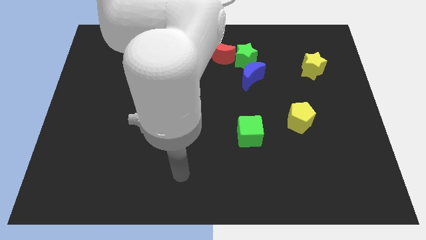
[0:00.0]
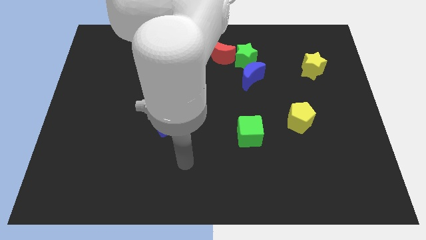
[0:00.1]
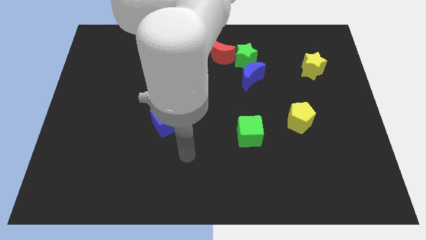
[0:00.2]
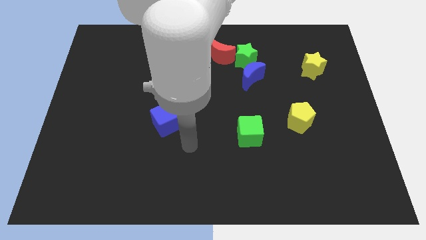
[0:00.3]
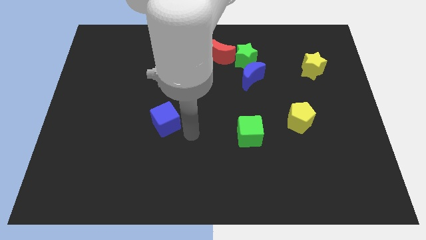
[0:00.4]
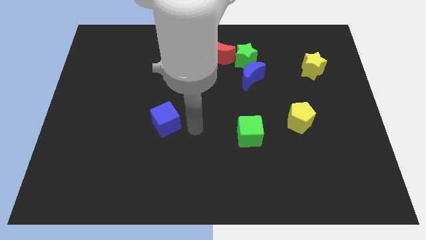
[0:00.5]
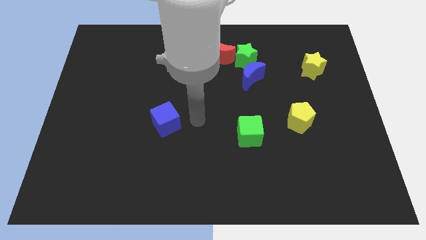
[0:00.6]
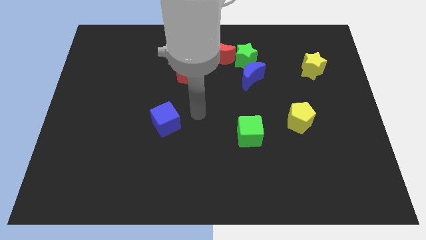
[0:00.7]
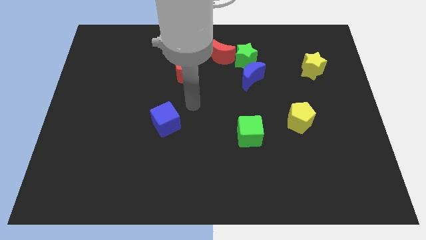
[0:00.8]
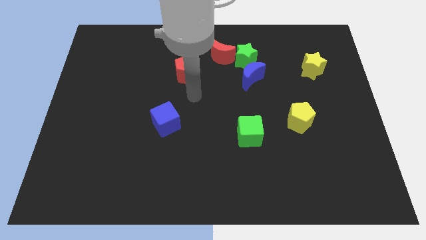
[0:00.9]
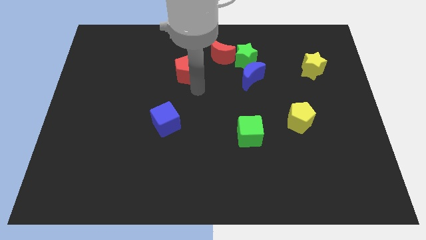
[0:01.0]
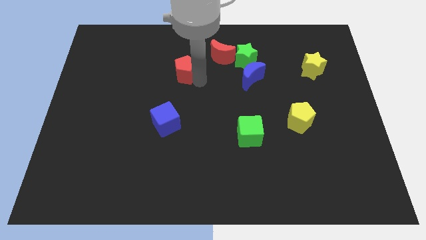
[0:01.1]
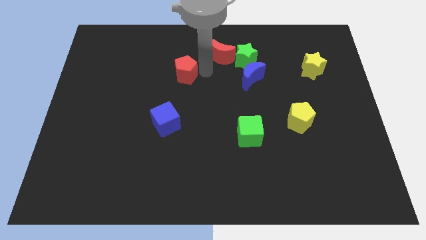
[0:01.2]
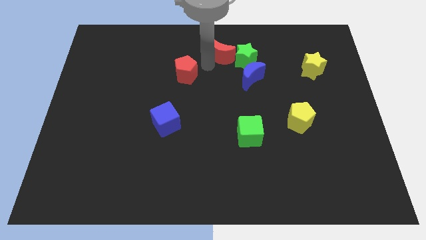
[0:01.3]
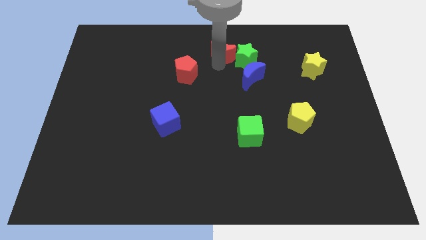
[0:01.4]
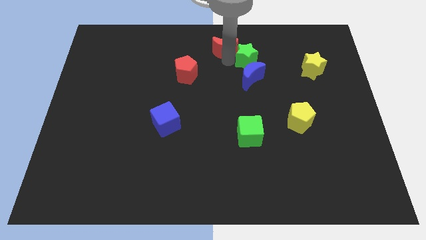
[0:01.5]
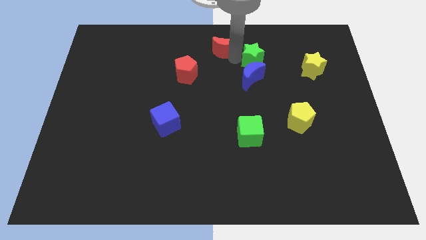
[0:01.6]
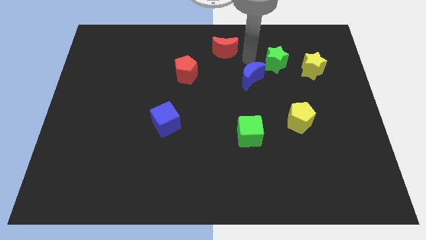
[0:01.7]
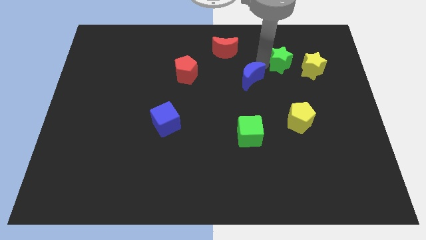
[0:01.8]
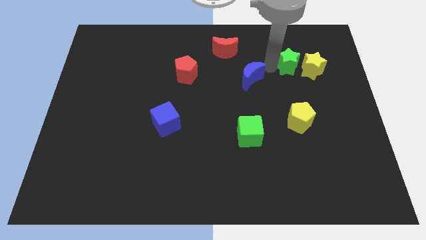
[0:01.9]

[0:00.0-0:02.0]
separate the blue moon from the green star

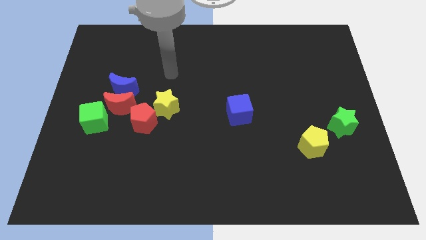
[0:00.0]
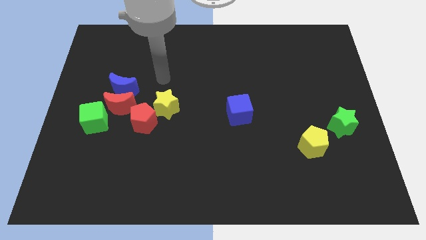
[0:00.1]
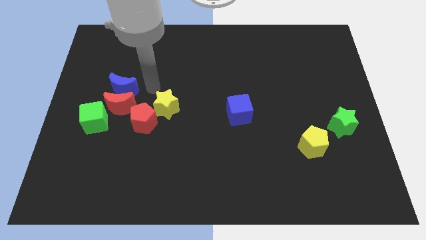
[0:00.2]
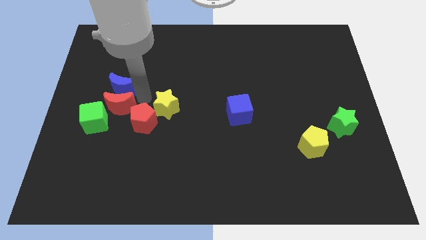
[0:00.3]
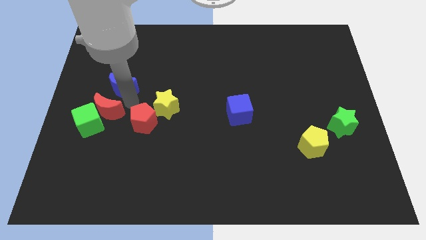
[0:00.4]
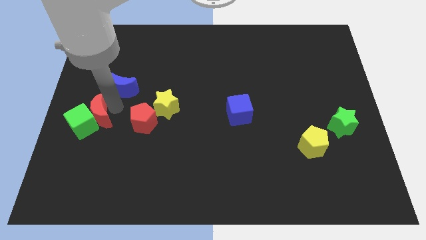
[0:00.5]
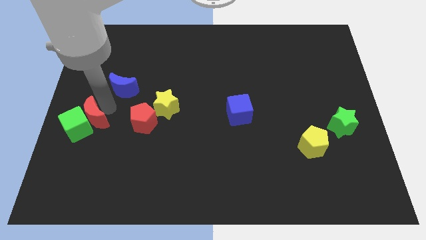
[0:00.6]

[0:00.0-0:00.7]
separate the blue moon from the red moon

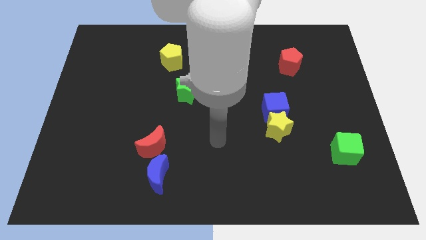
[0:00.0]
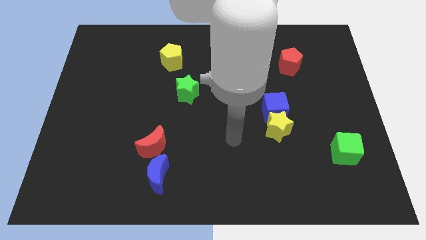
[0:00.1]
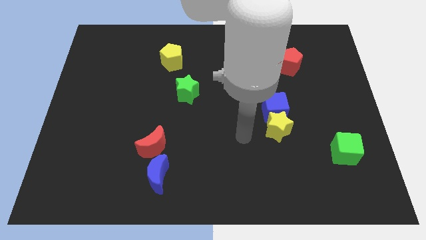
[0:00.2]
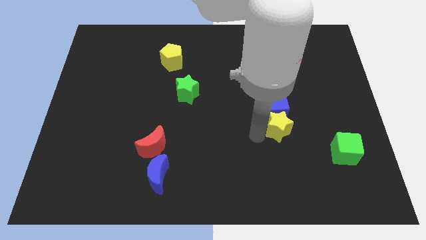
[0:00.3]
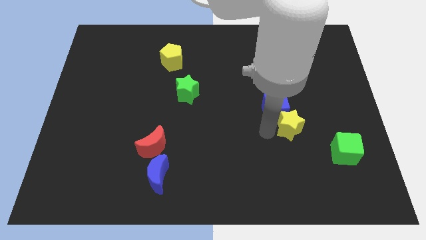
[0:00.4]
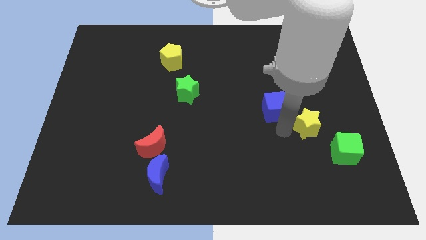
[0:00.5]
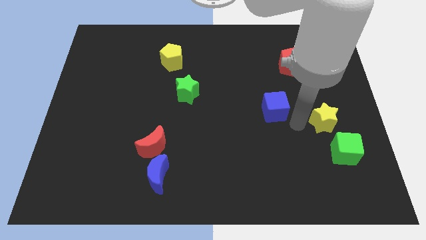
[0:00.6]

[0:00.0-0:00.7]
separate the blue cube from the yellow star

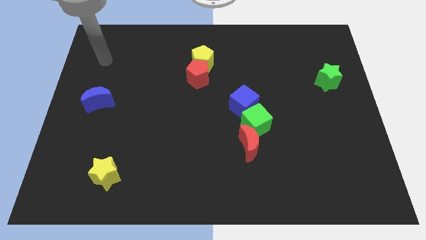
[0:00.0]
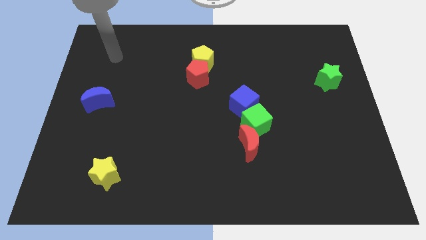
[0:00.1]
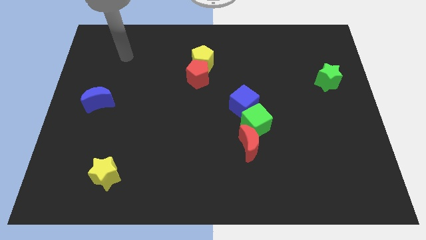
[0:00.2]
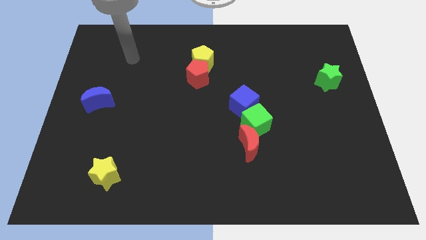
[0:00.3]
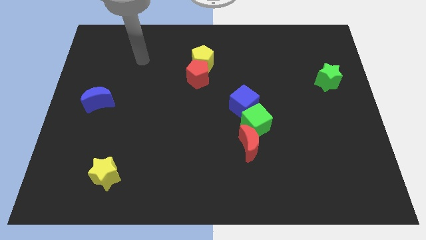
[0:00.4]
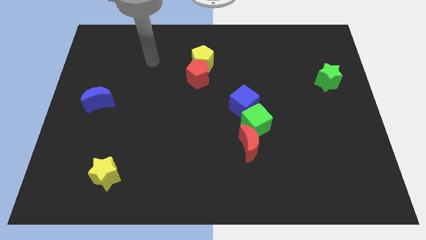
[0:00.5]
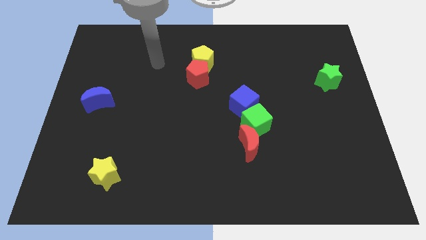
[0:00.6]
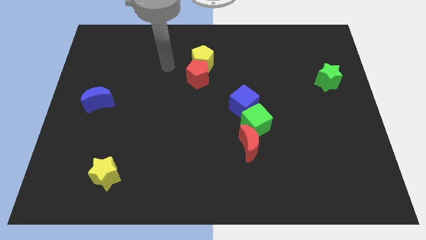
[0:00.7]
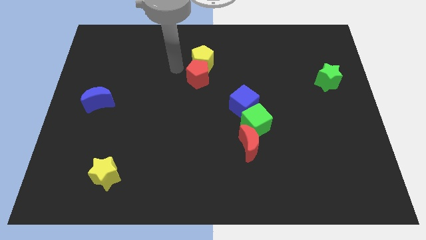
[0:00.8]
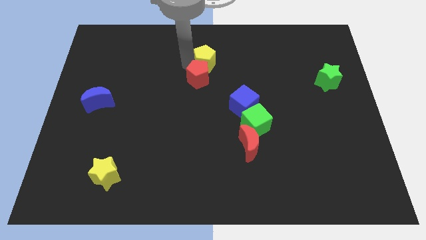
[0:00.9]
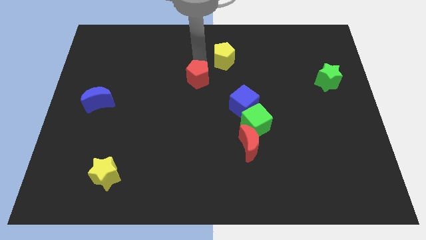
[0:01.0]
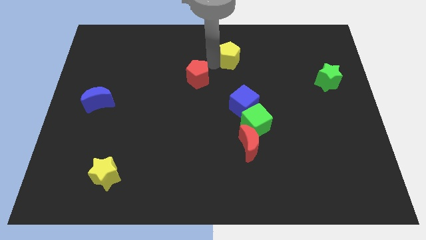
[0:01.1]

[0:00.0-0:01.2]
move the red pentagon away from the yellow pentagon

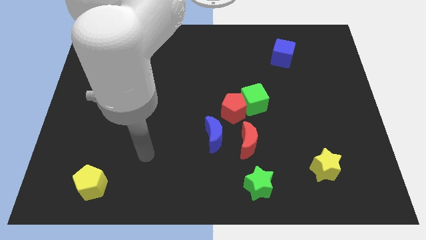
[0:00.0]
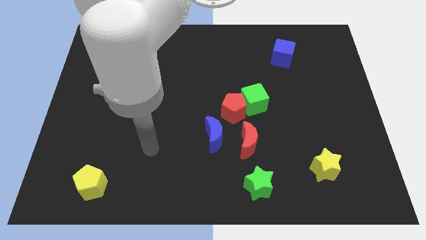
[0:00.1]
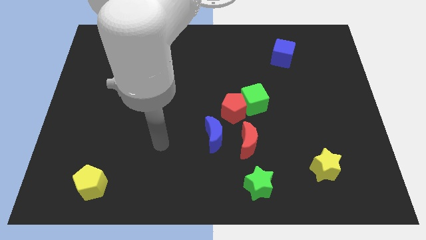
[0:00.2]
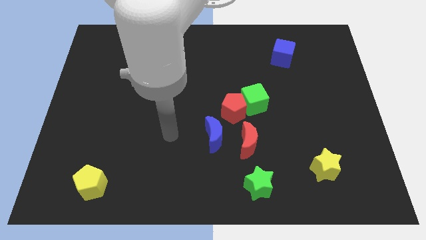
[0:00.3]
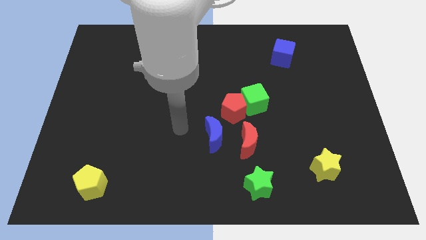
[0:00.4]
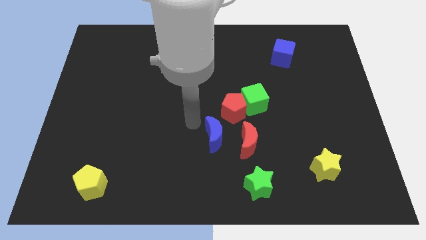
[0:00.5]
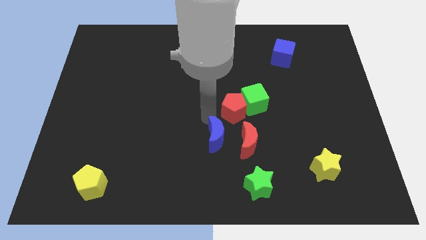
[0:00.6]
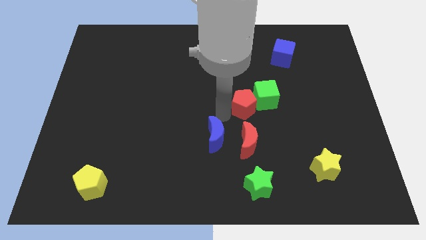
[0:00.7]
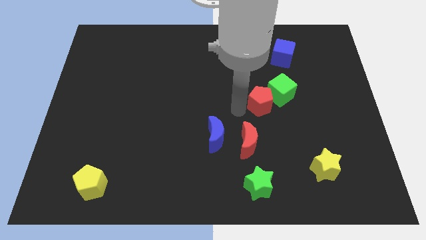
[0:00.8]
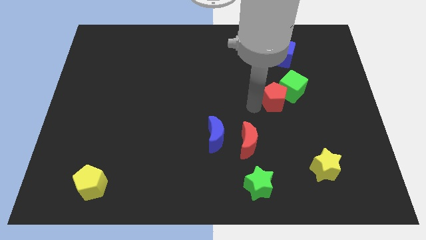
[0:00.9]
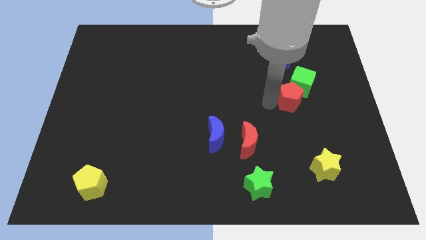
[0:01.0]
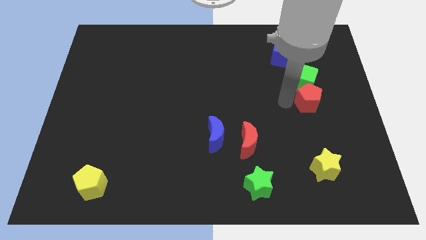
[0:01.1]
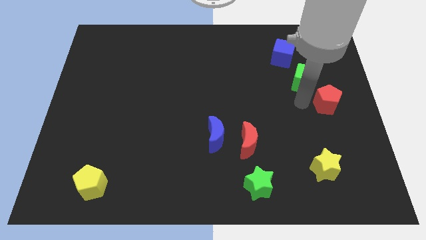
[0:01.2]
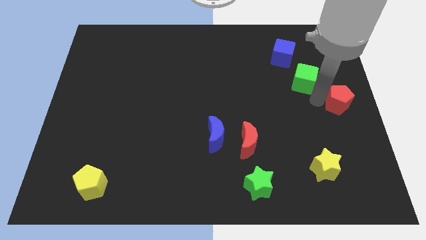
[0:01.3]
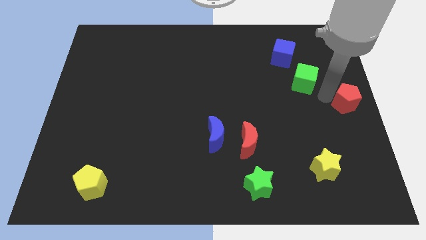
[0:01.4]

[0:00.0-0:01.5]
move the green cube away from the red pentagon

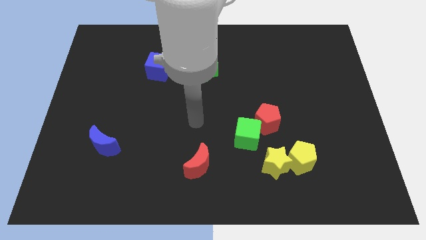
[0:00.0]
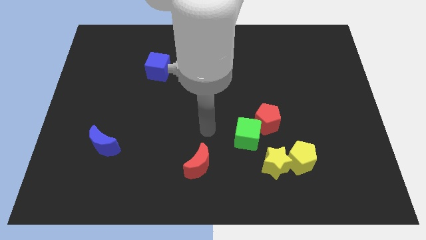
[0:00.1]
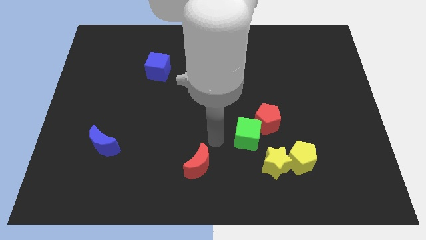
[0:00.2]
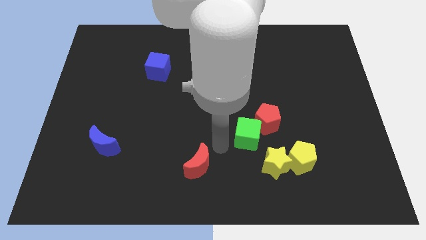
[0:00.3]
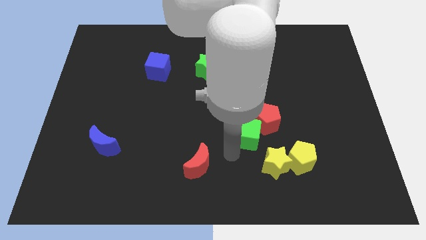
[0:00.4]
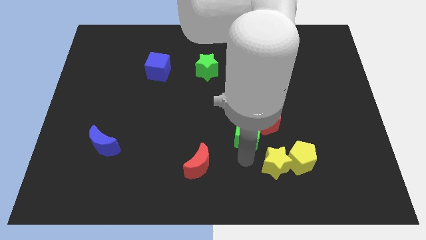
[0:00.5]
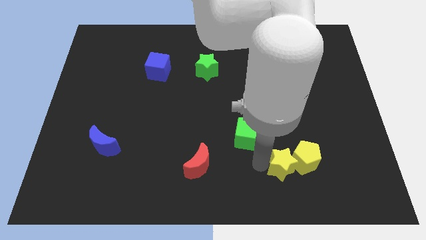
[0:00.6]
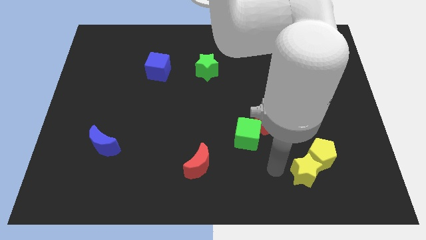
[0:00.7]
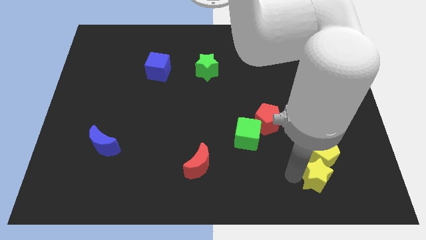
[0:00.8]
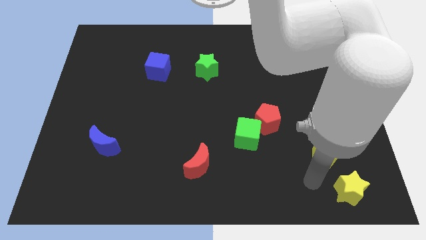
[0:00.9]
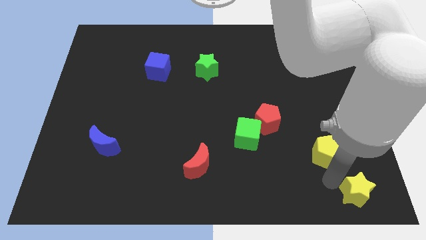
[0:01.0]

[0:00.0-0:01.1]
pull the yellow pentagon apart from the yellow star

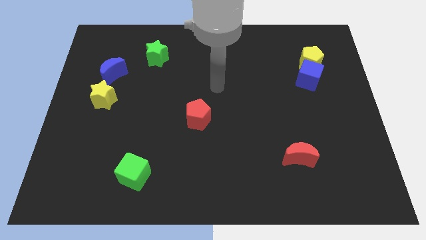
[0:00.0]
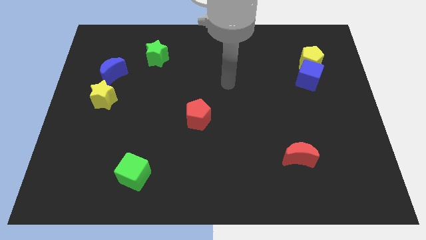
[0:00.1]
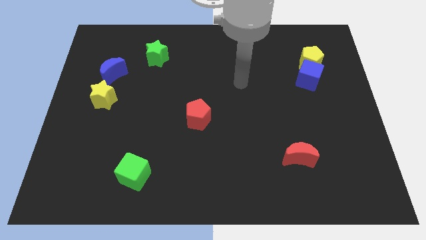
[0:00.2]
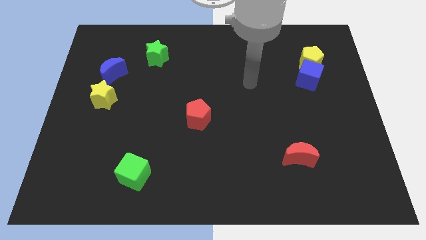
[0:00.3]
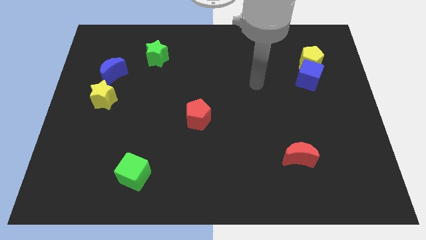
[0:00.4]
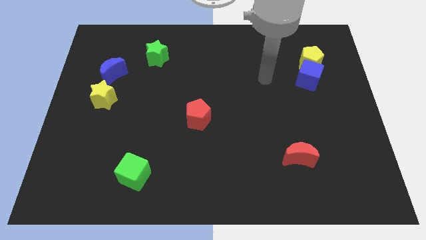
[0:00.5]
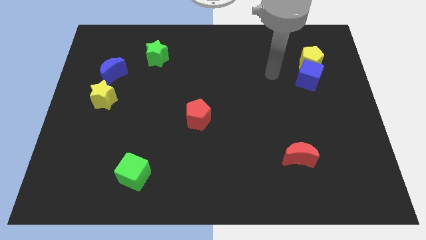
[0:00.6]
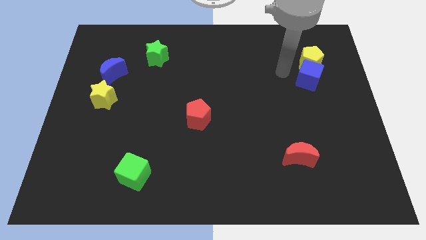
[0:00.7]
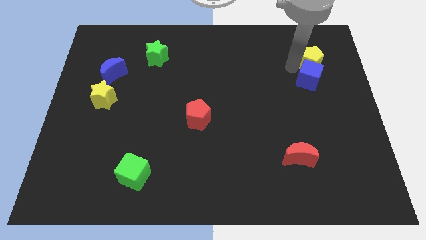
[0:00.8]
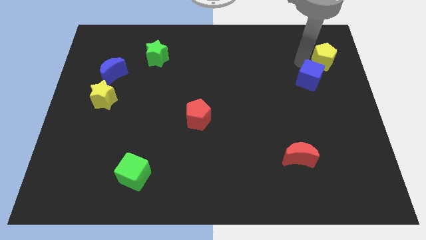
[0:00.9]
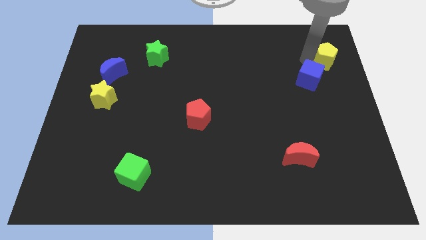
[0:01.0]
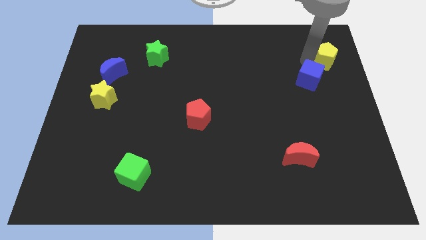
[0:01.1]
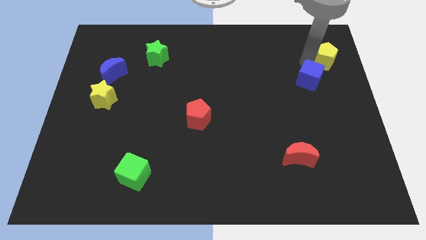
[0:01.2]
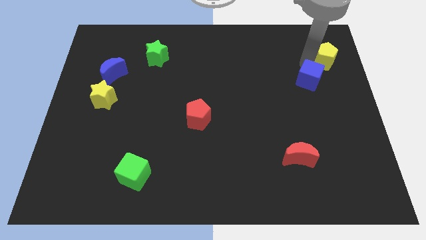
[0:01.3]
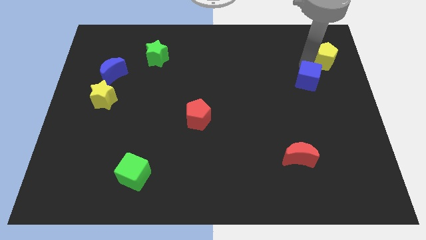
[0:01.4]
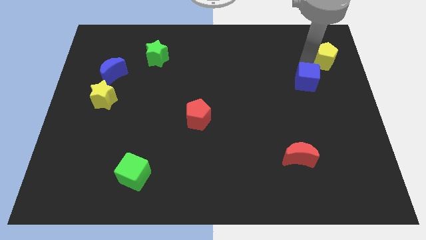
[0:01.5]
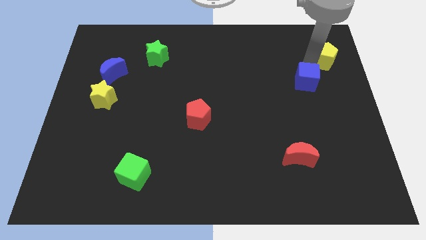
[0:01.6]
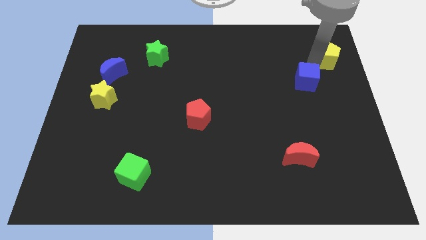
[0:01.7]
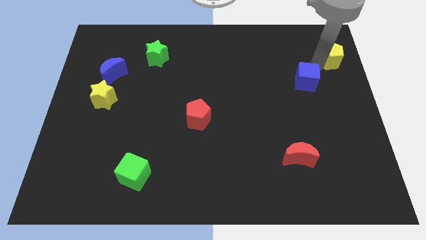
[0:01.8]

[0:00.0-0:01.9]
separate the blue cube from the yellow pentagon

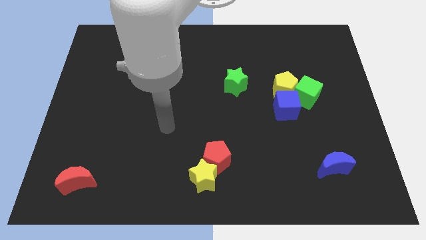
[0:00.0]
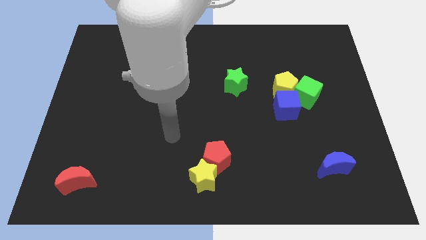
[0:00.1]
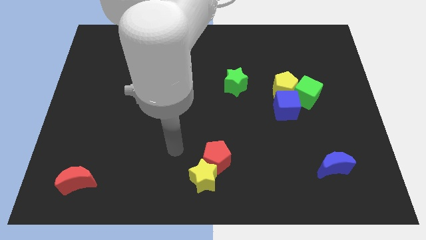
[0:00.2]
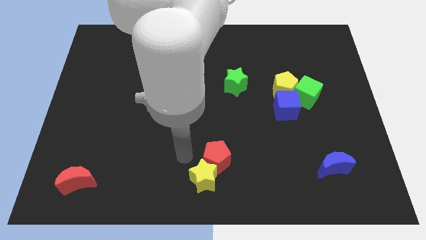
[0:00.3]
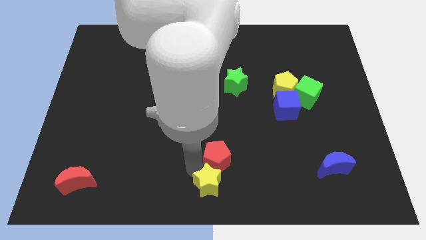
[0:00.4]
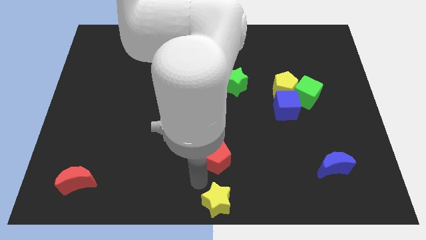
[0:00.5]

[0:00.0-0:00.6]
separate the red pentagon from the yellow star
